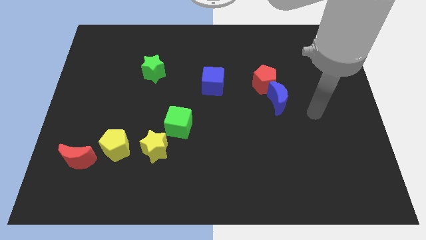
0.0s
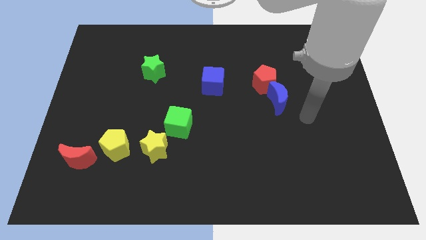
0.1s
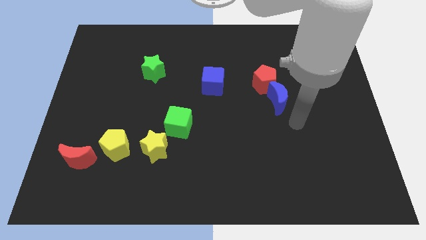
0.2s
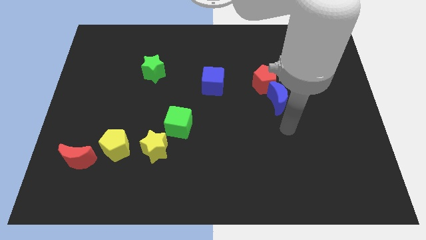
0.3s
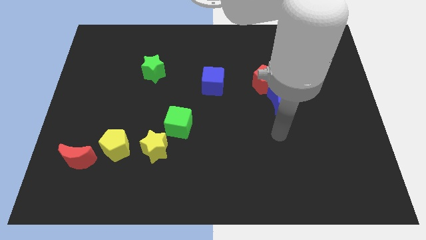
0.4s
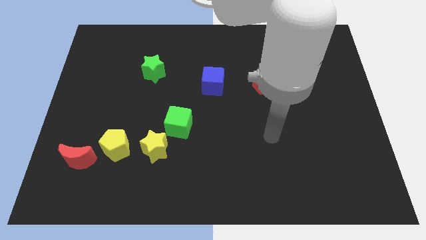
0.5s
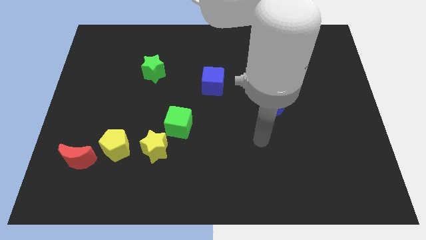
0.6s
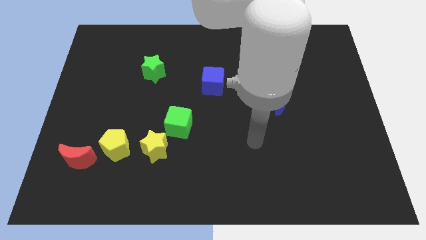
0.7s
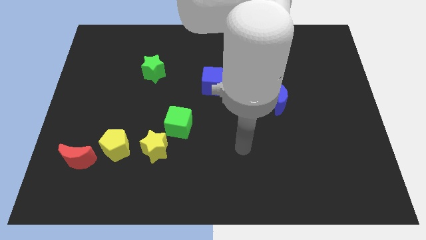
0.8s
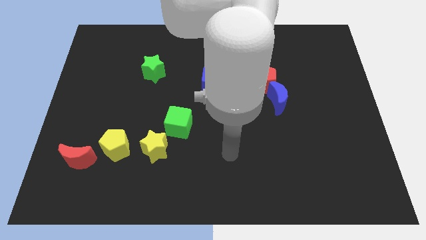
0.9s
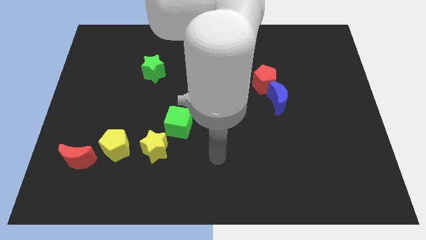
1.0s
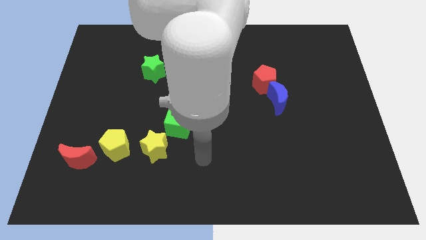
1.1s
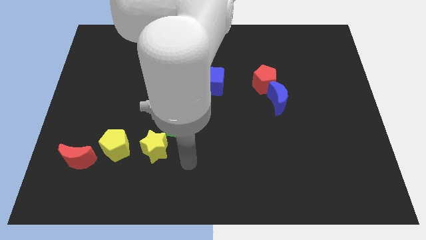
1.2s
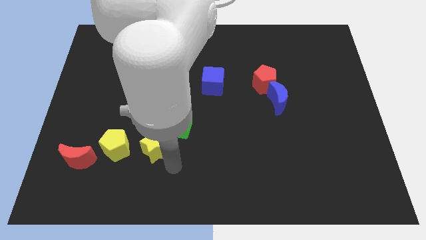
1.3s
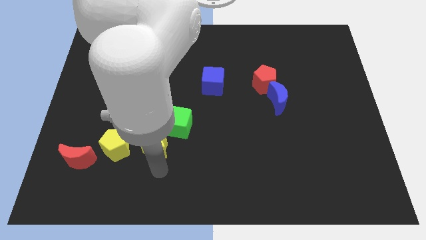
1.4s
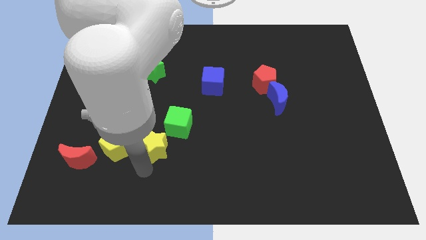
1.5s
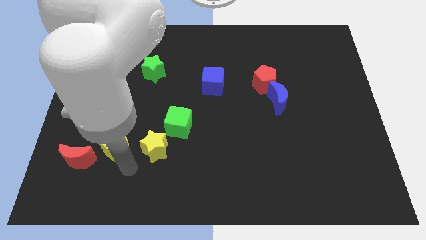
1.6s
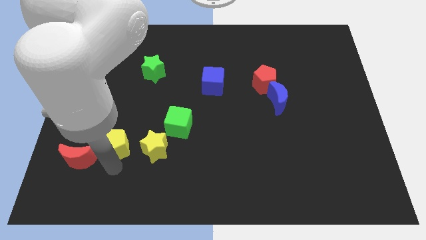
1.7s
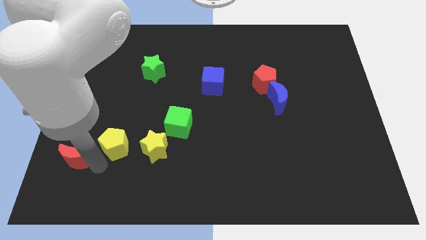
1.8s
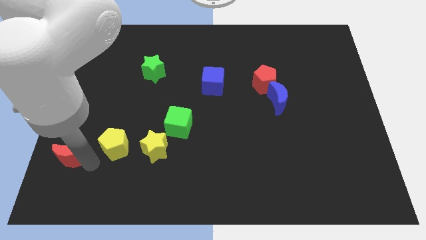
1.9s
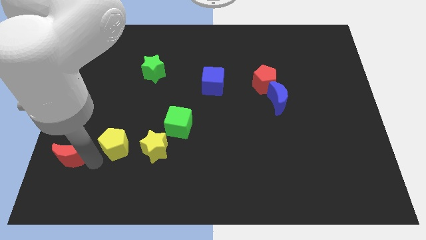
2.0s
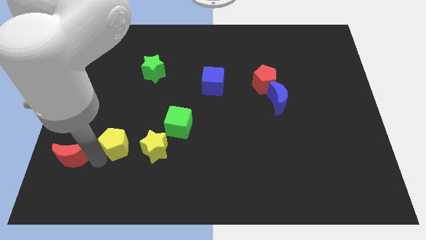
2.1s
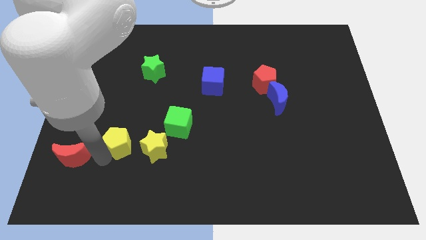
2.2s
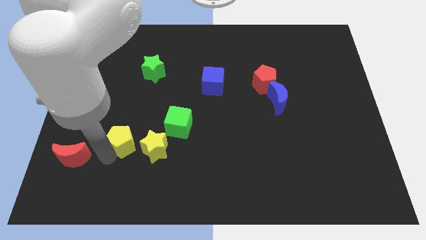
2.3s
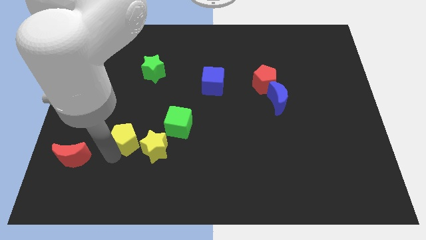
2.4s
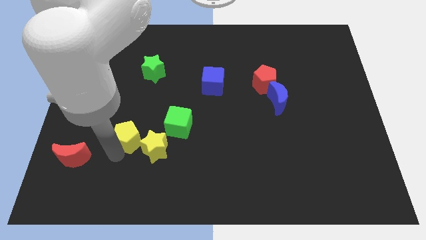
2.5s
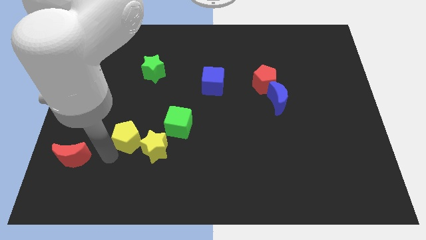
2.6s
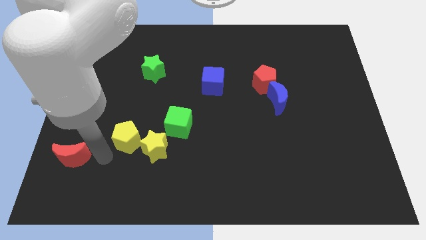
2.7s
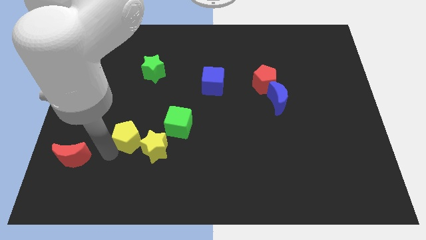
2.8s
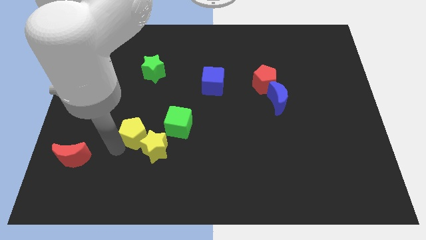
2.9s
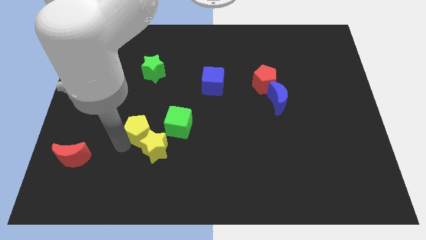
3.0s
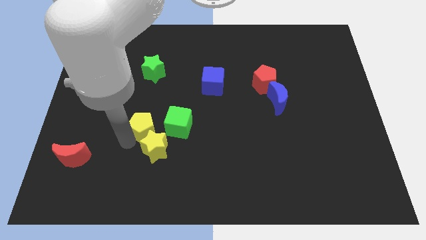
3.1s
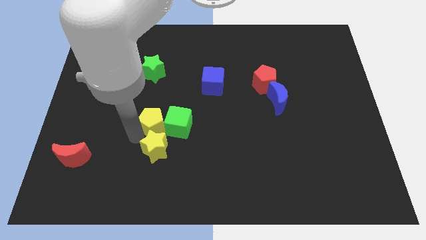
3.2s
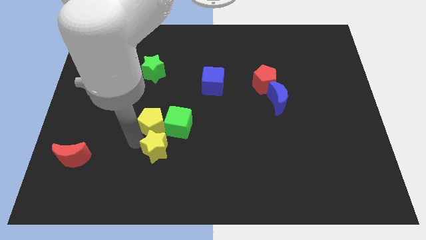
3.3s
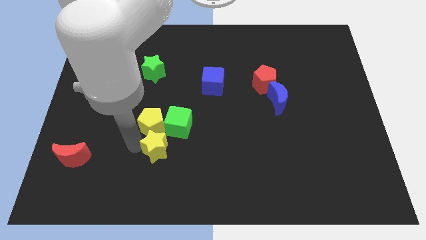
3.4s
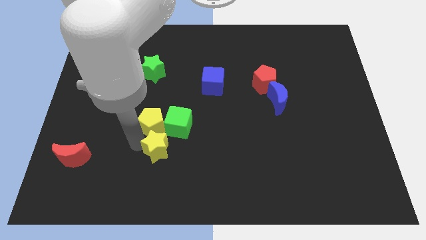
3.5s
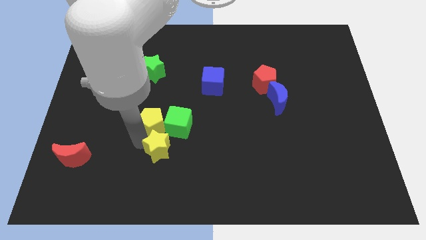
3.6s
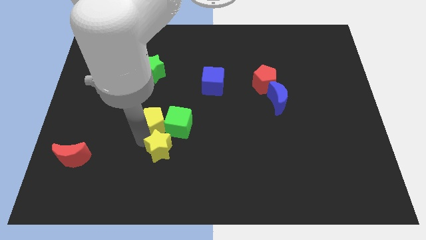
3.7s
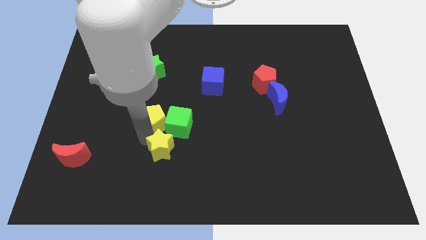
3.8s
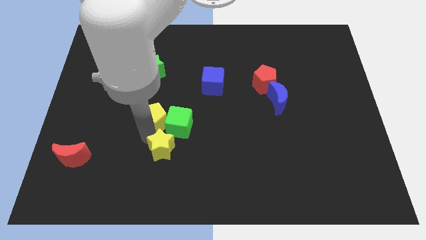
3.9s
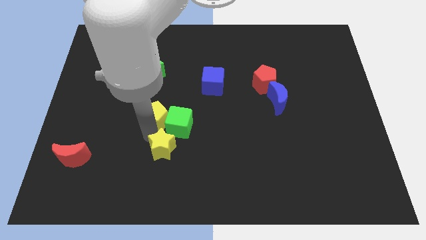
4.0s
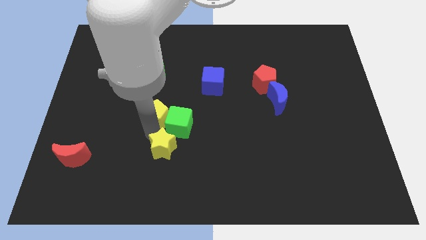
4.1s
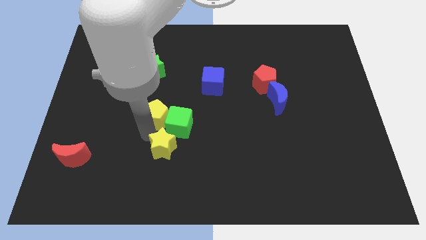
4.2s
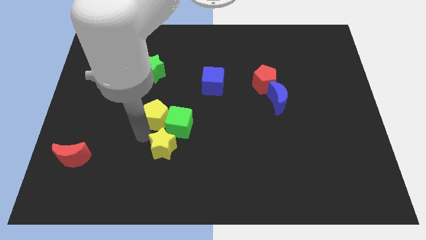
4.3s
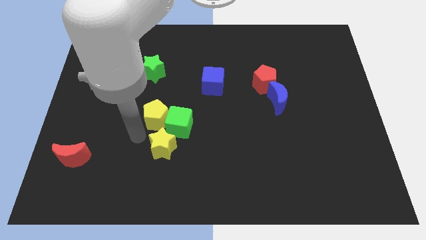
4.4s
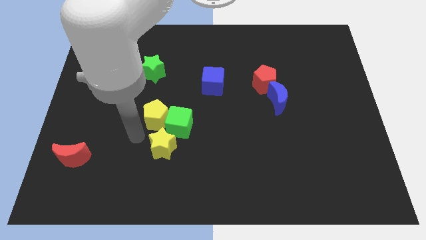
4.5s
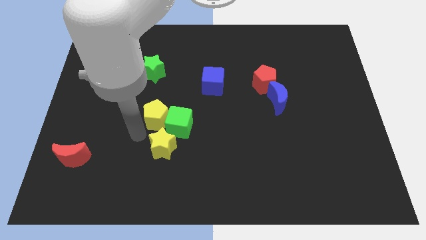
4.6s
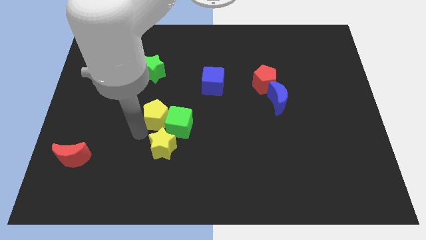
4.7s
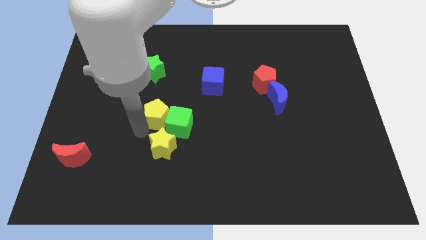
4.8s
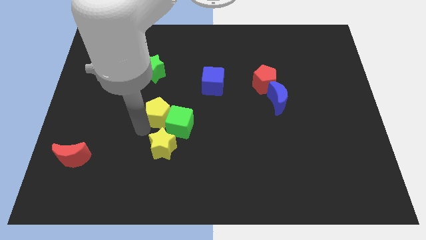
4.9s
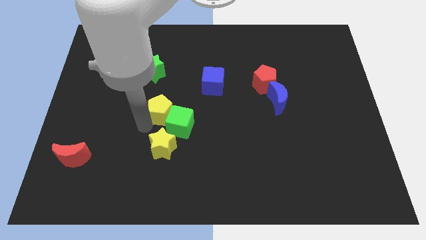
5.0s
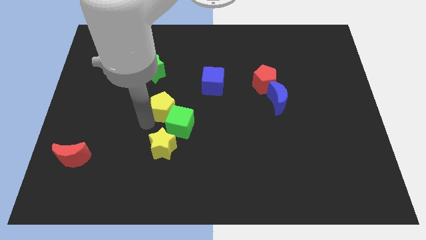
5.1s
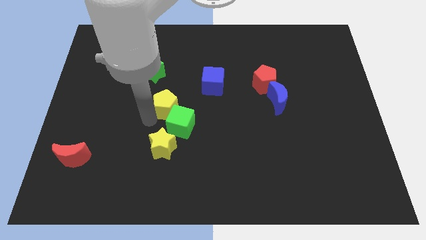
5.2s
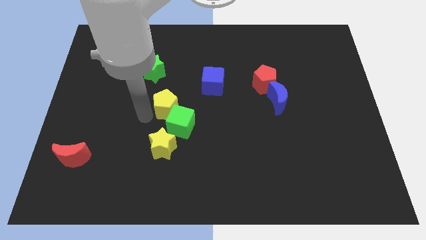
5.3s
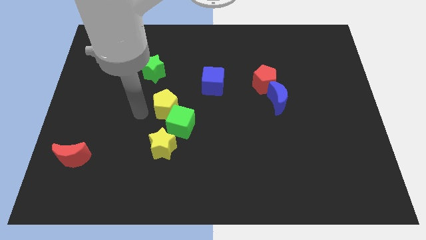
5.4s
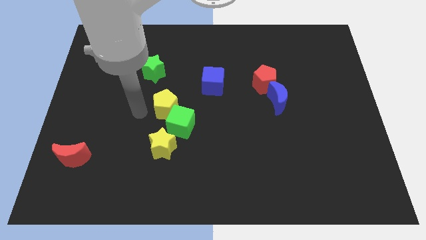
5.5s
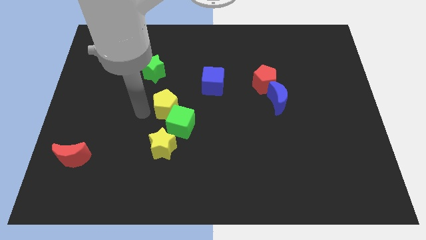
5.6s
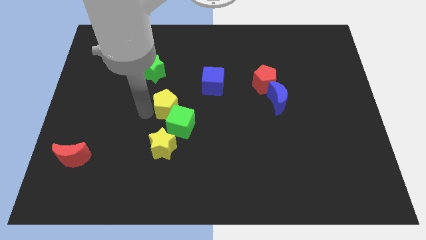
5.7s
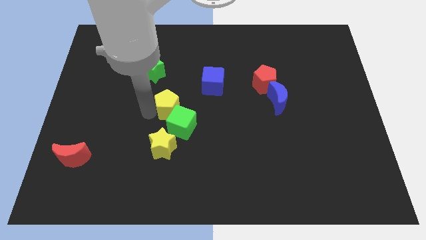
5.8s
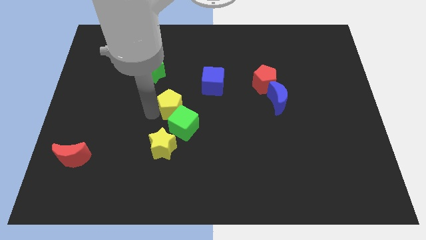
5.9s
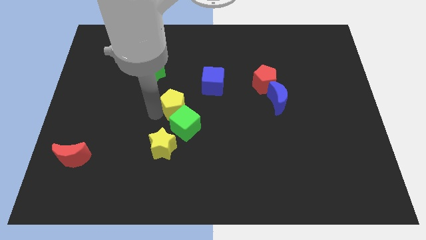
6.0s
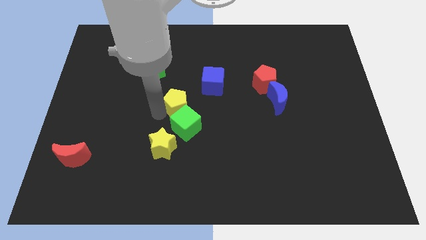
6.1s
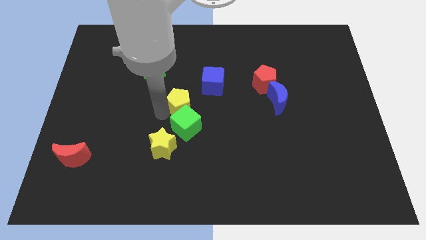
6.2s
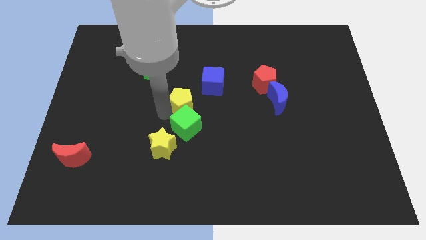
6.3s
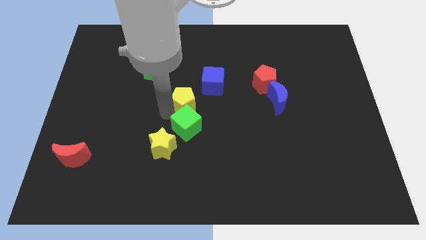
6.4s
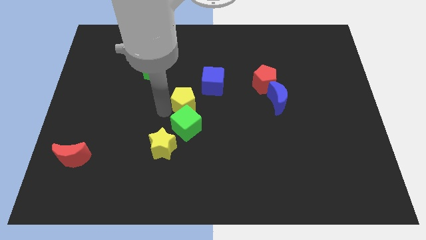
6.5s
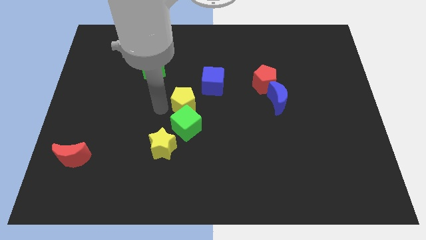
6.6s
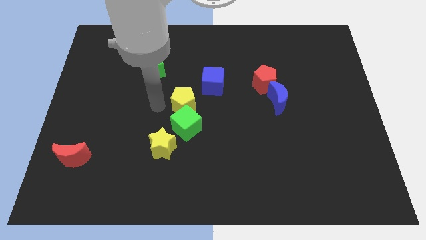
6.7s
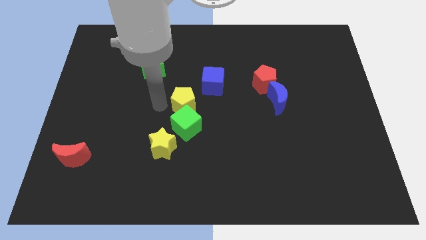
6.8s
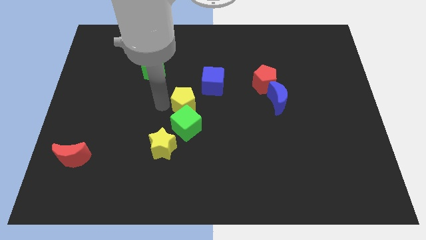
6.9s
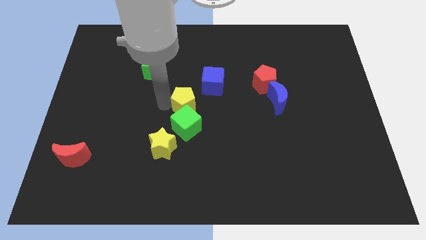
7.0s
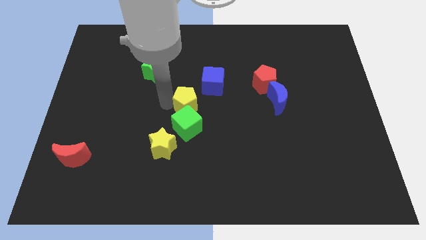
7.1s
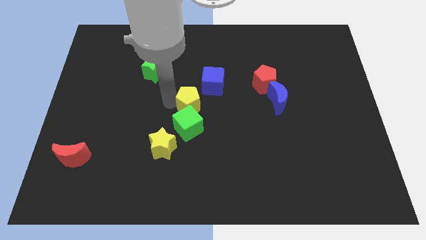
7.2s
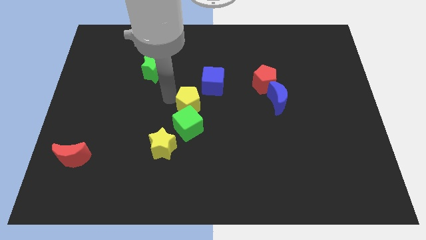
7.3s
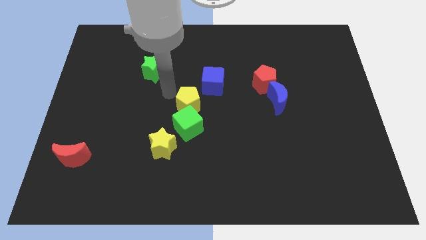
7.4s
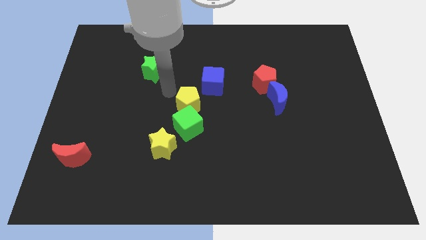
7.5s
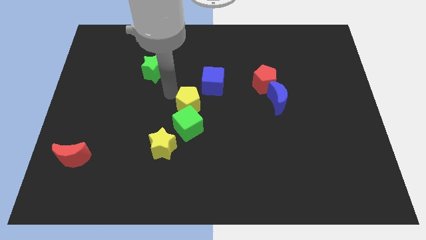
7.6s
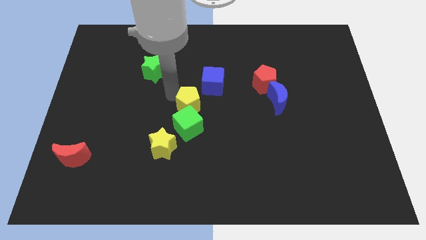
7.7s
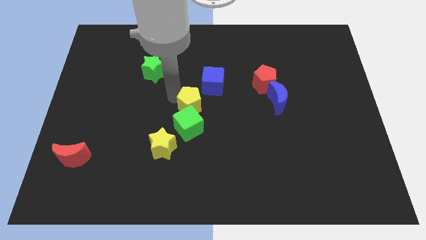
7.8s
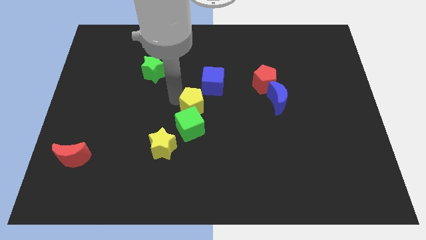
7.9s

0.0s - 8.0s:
put the yellow pentagon to the bottom of the blue cube
